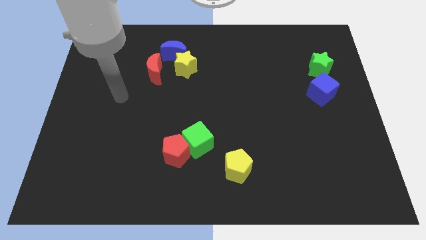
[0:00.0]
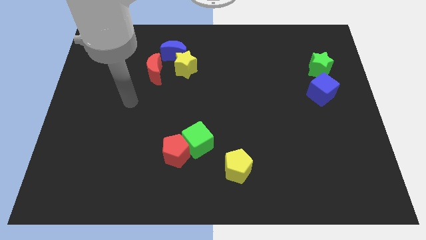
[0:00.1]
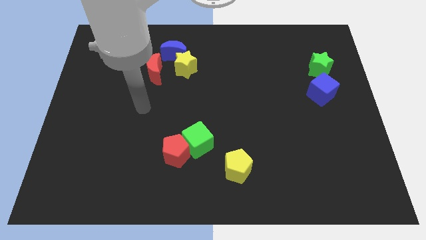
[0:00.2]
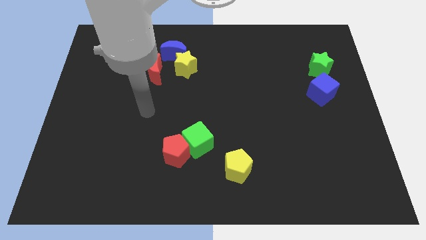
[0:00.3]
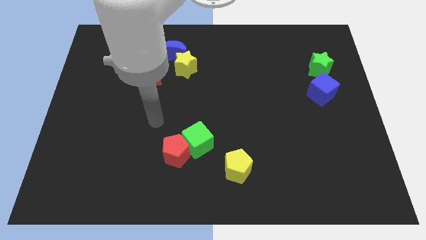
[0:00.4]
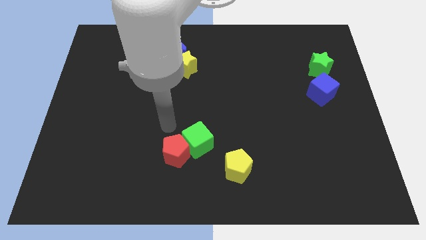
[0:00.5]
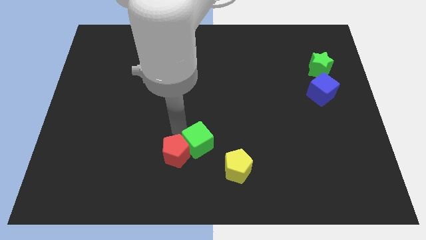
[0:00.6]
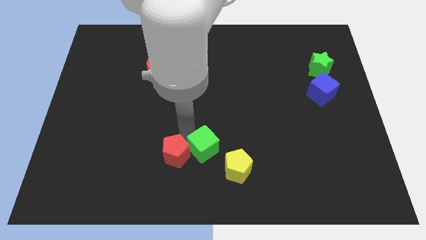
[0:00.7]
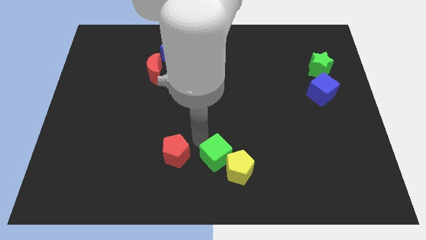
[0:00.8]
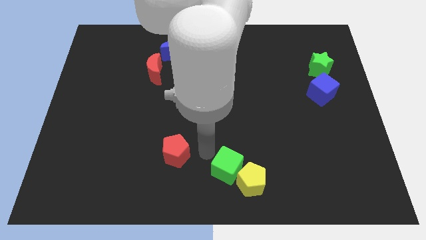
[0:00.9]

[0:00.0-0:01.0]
pull the red pentagon apart from the green cube

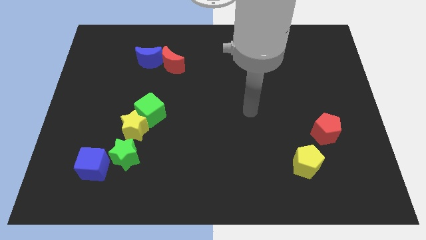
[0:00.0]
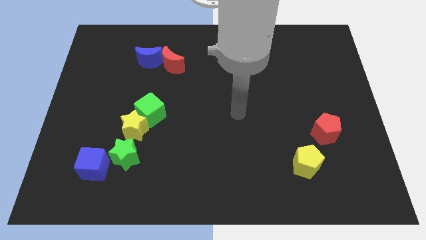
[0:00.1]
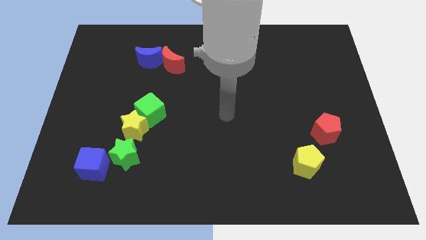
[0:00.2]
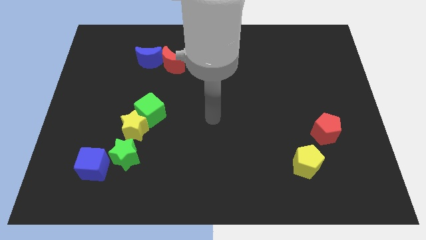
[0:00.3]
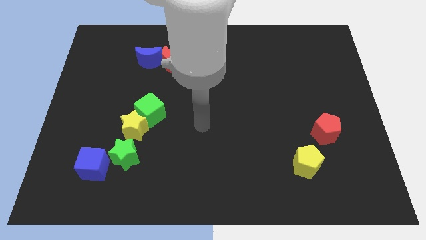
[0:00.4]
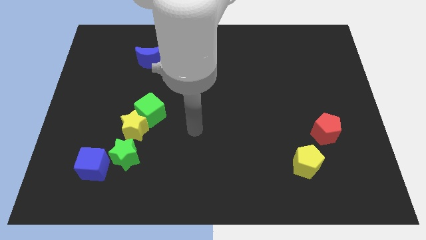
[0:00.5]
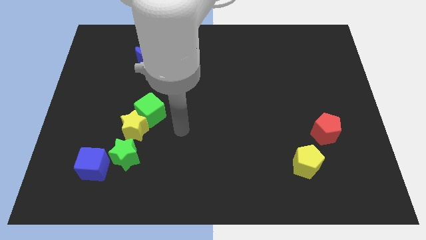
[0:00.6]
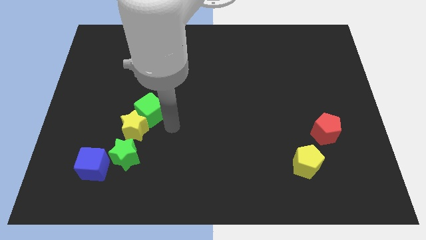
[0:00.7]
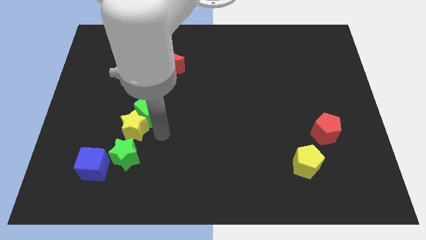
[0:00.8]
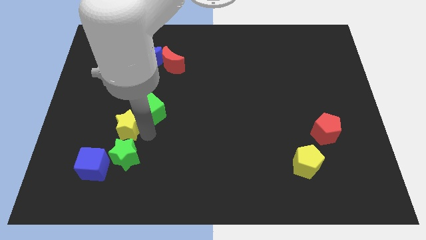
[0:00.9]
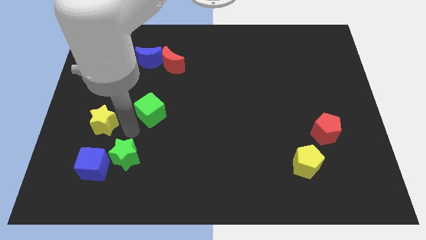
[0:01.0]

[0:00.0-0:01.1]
move the green cube away from the yellow star

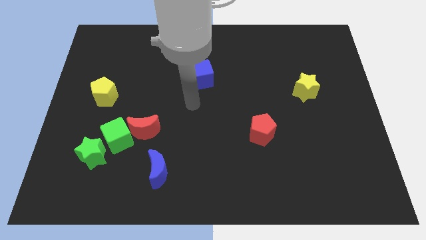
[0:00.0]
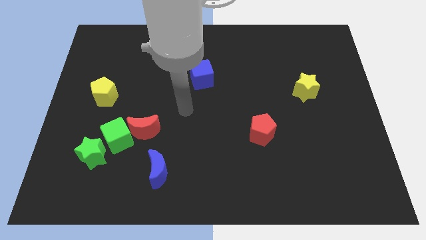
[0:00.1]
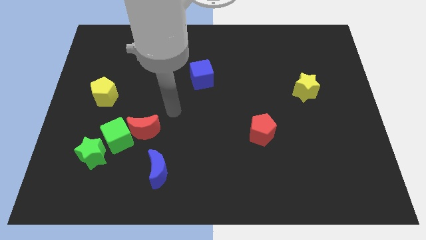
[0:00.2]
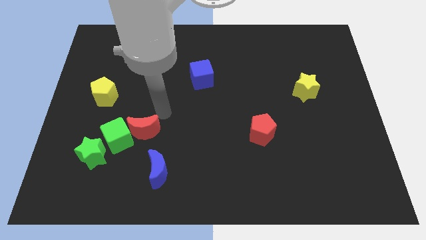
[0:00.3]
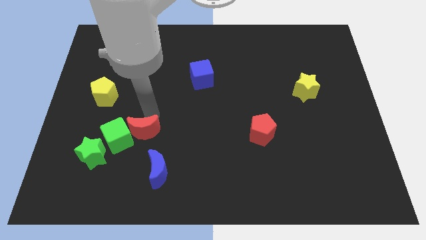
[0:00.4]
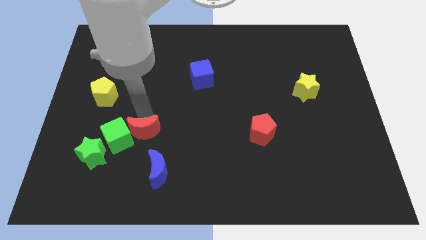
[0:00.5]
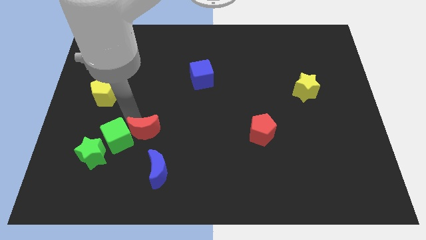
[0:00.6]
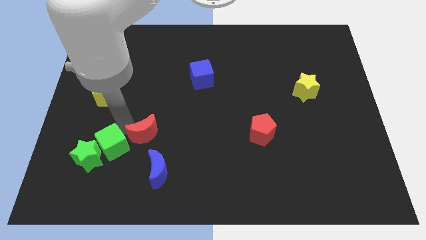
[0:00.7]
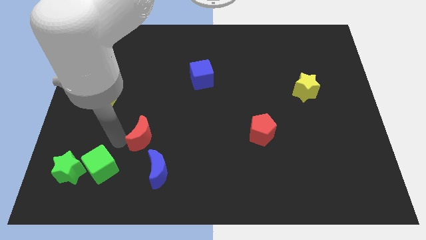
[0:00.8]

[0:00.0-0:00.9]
separate the red moon from the green cube

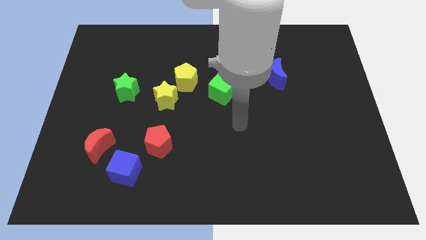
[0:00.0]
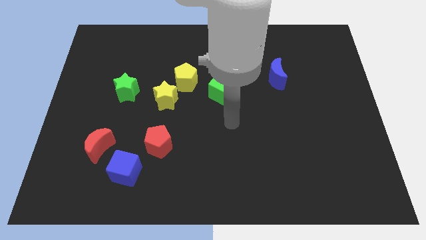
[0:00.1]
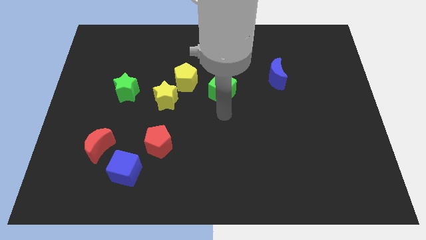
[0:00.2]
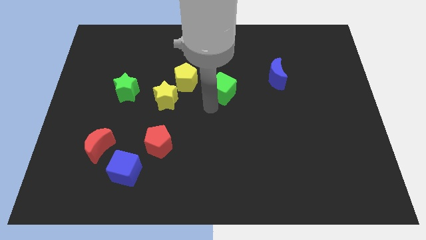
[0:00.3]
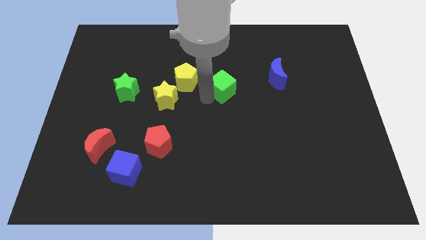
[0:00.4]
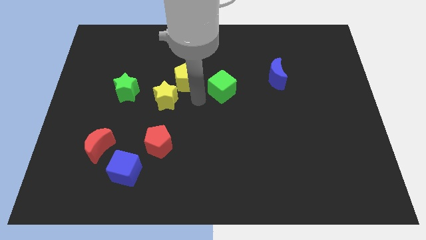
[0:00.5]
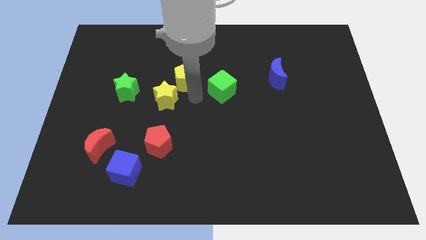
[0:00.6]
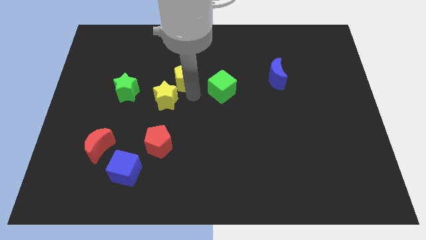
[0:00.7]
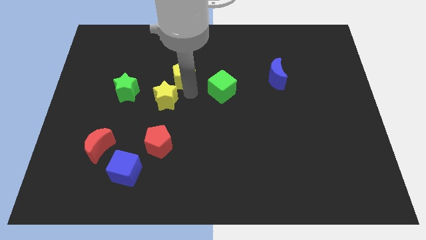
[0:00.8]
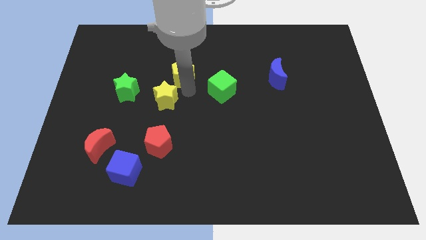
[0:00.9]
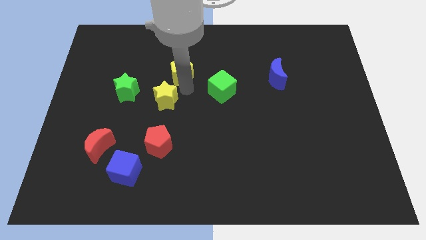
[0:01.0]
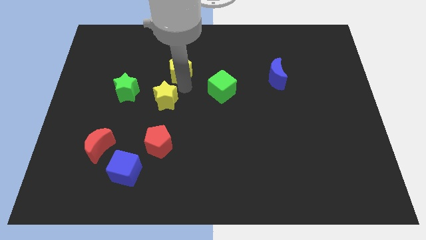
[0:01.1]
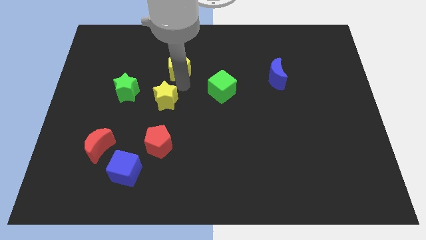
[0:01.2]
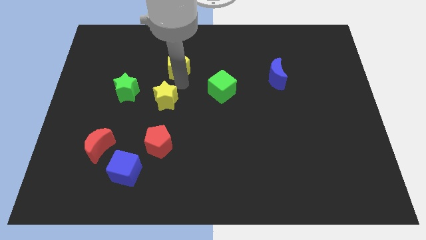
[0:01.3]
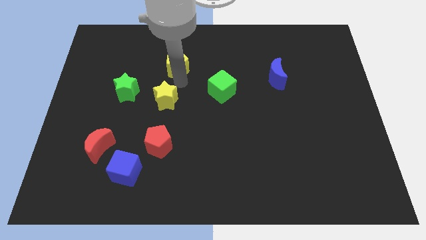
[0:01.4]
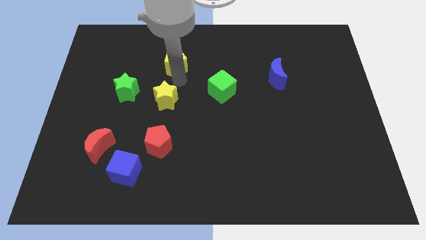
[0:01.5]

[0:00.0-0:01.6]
move the yellow pentagon away from the yellow star and green cube

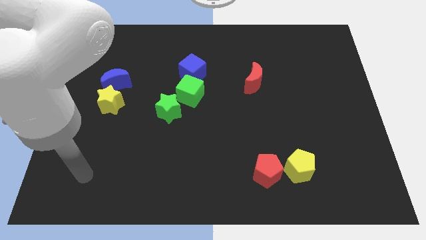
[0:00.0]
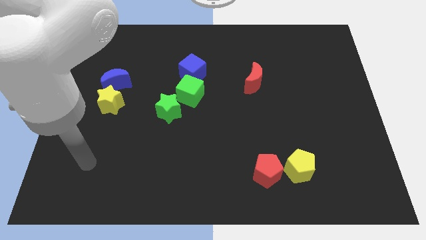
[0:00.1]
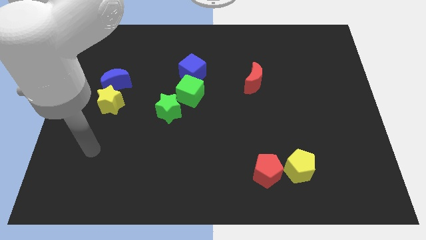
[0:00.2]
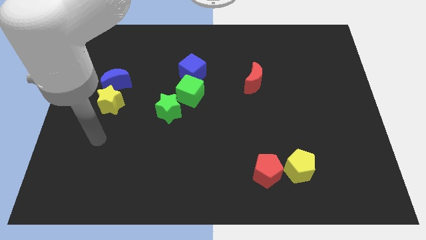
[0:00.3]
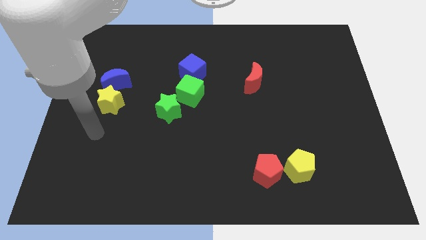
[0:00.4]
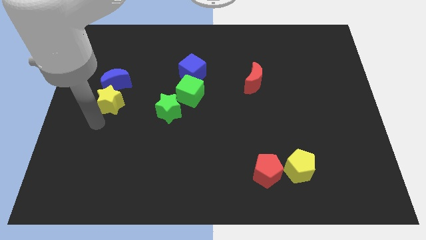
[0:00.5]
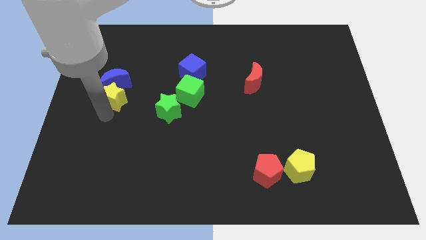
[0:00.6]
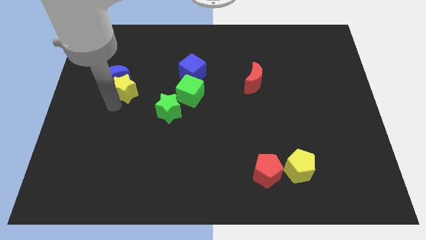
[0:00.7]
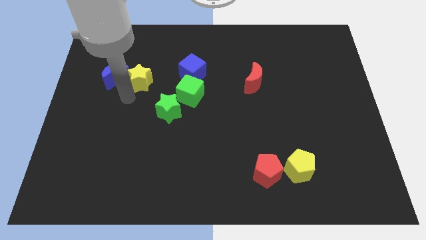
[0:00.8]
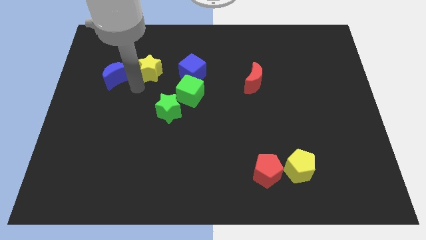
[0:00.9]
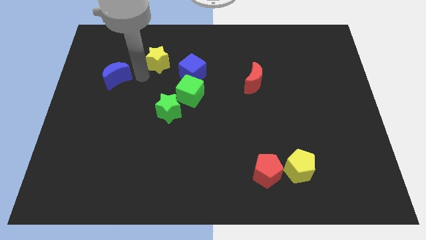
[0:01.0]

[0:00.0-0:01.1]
pull the blue moon apart from the yellow star

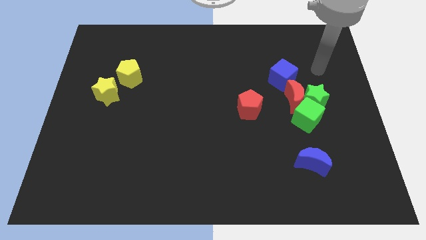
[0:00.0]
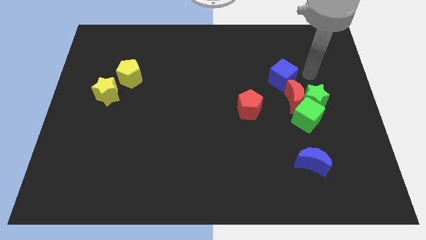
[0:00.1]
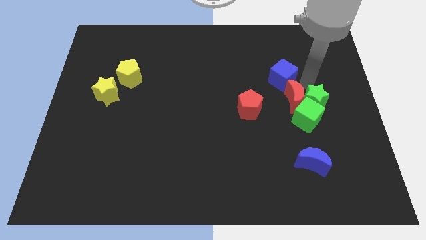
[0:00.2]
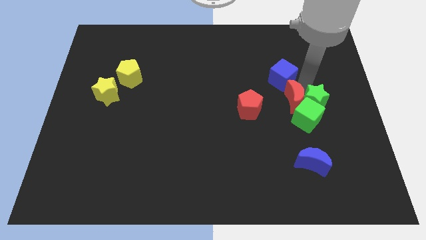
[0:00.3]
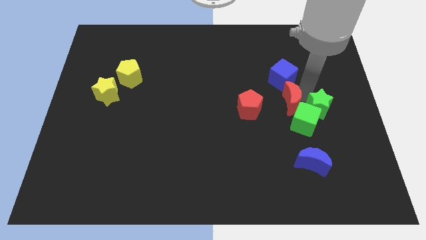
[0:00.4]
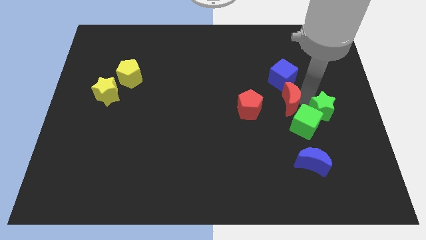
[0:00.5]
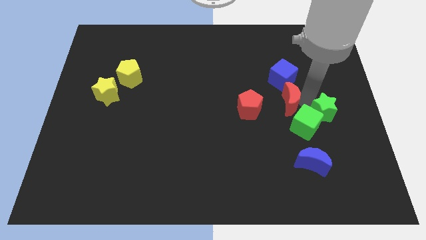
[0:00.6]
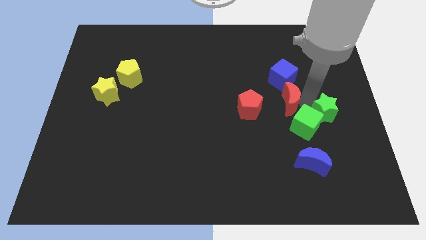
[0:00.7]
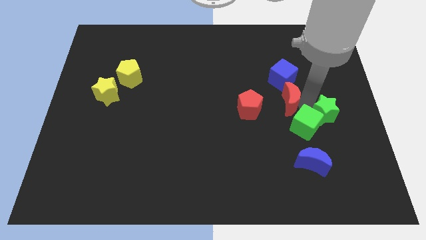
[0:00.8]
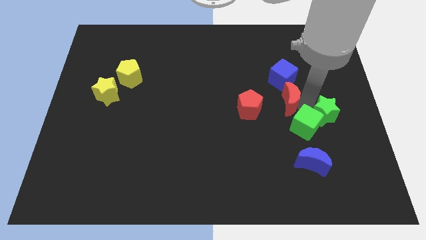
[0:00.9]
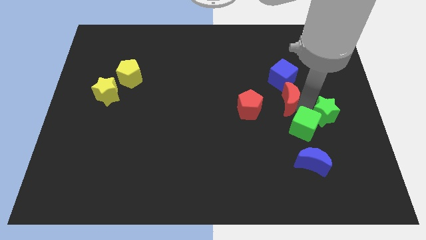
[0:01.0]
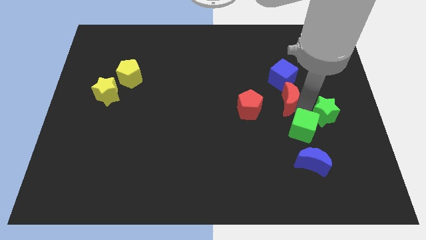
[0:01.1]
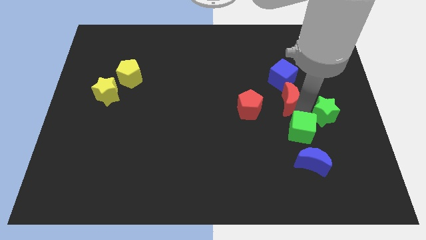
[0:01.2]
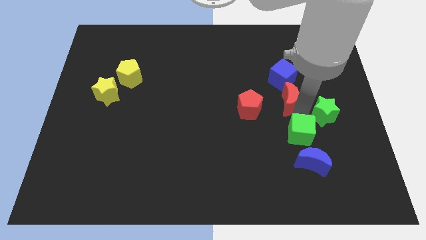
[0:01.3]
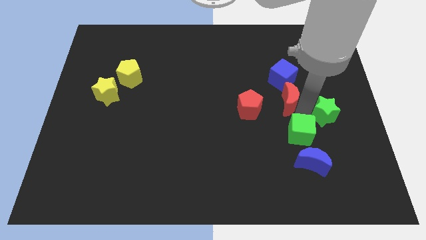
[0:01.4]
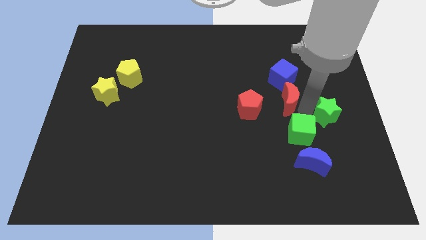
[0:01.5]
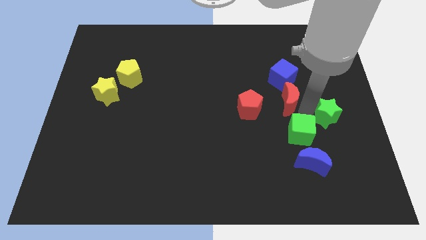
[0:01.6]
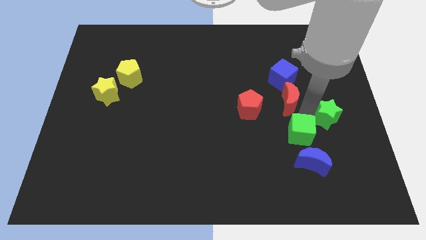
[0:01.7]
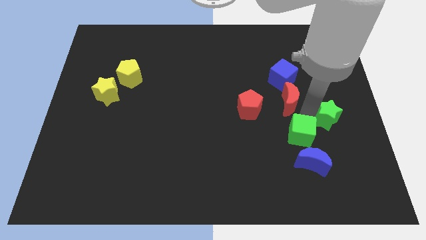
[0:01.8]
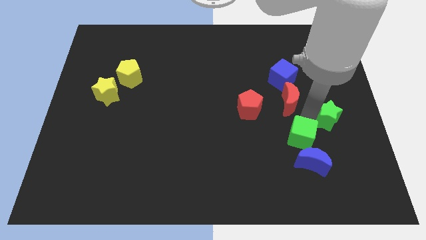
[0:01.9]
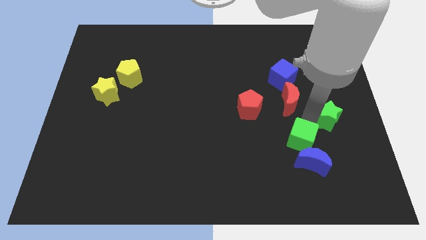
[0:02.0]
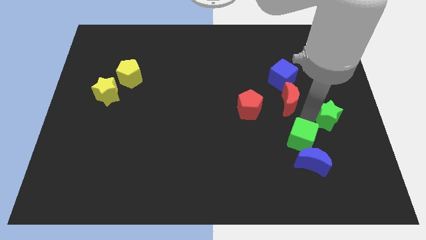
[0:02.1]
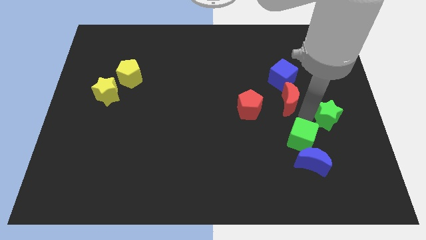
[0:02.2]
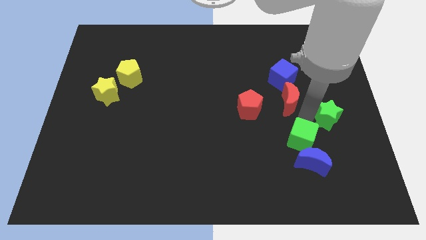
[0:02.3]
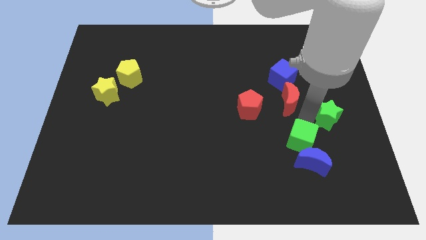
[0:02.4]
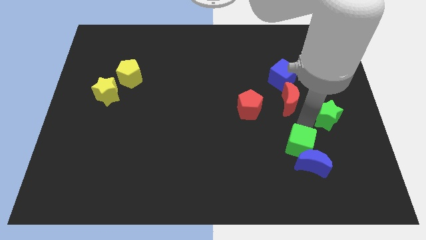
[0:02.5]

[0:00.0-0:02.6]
move the green cube away from the green star and red moon

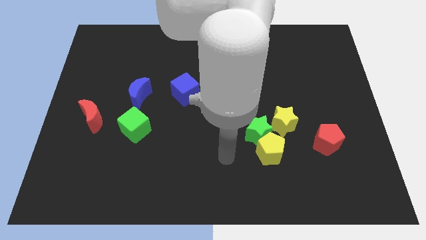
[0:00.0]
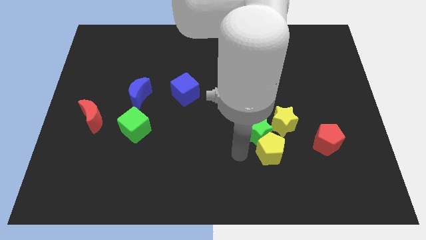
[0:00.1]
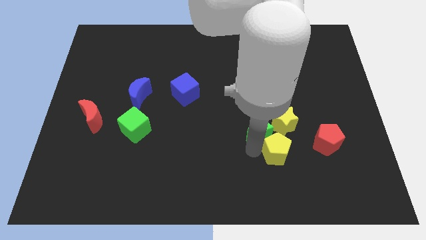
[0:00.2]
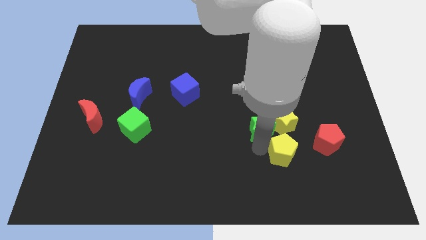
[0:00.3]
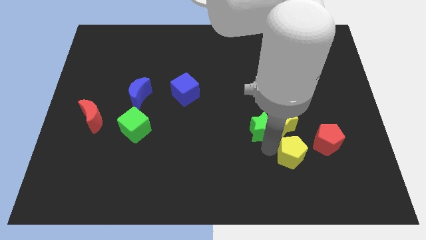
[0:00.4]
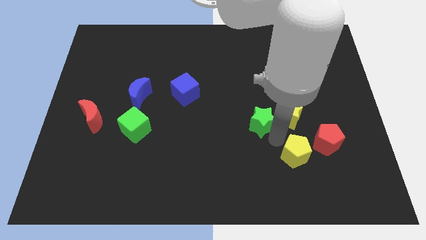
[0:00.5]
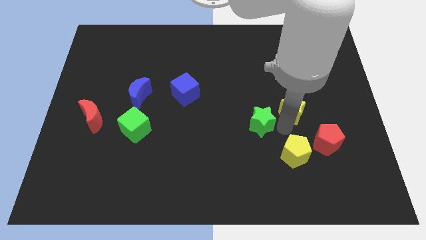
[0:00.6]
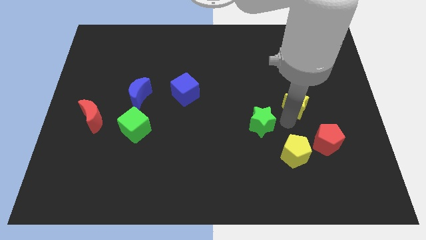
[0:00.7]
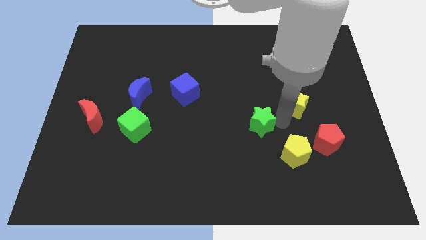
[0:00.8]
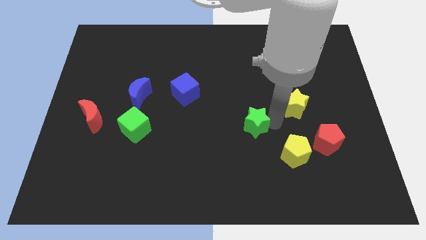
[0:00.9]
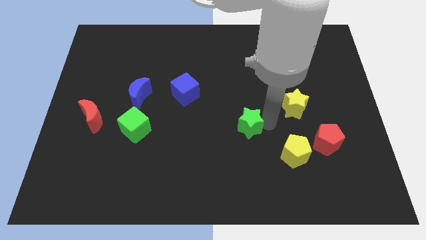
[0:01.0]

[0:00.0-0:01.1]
separate the green star from the yellow pentagon and yellow star
